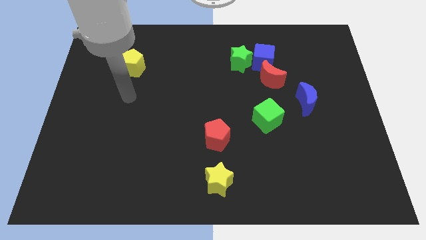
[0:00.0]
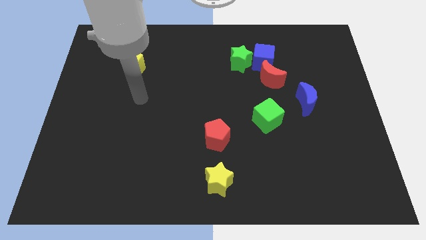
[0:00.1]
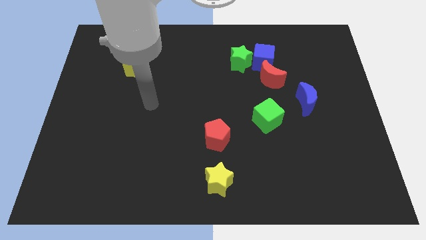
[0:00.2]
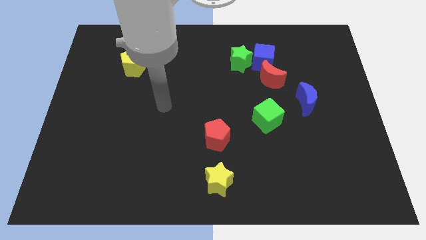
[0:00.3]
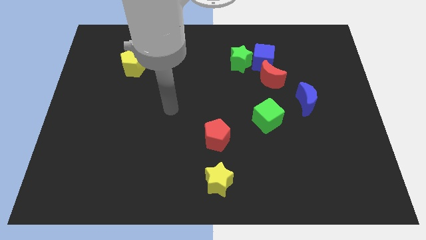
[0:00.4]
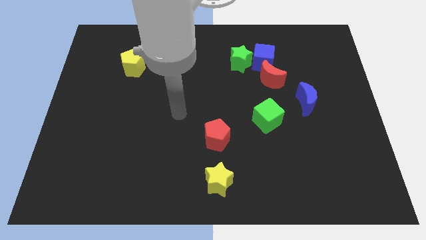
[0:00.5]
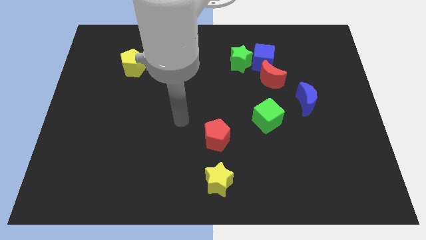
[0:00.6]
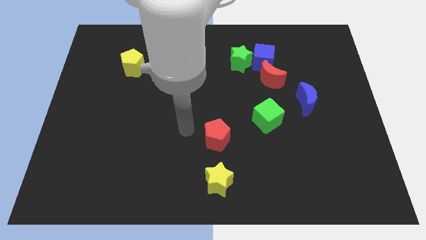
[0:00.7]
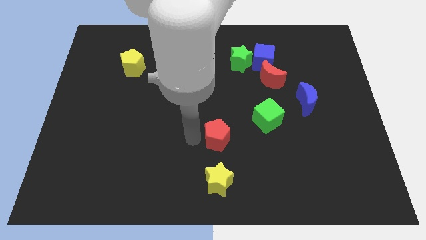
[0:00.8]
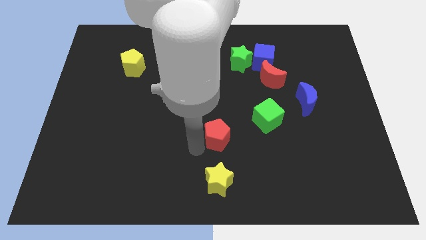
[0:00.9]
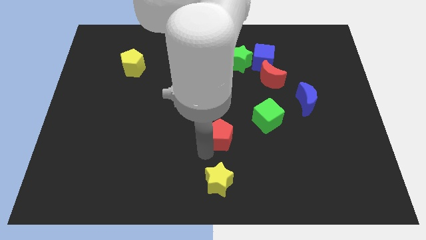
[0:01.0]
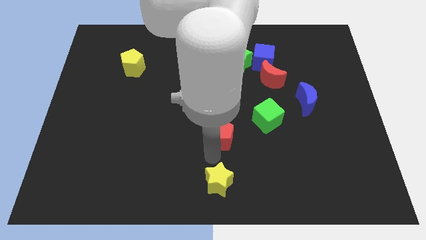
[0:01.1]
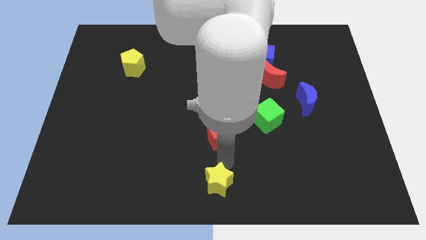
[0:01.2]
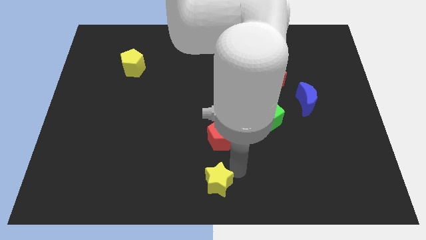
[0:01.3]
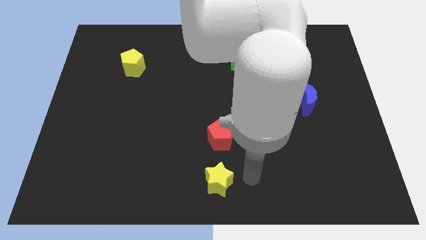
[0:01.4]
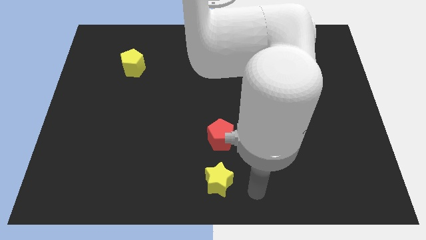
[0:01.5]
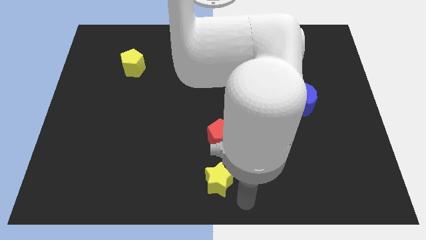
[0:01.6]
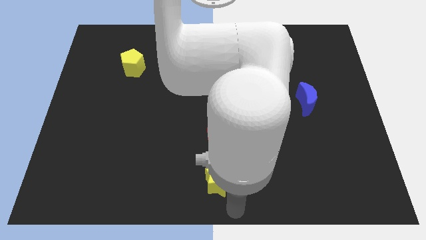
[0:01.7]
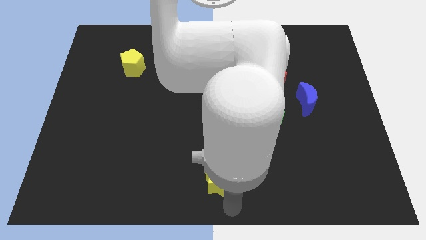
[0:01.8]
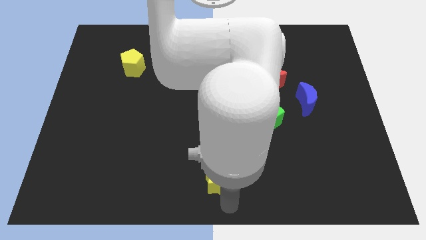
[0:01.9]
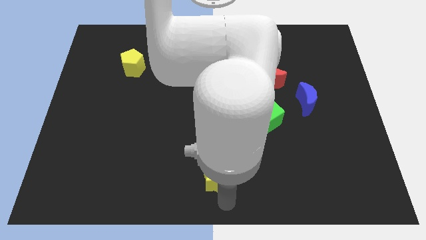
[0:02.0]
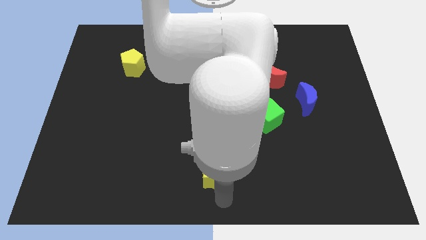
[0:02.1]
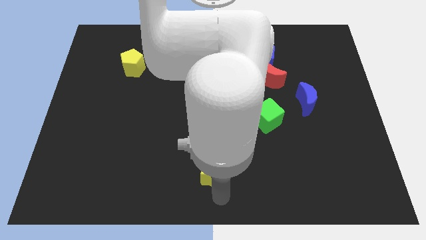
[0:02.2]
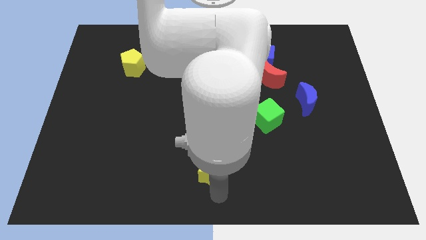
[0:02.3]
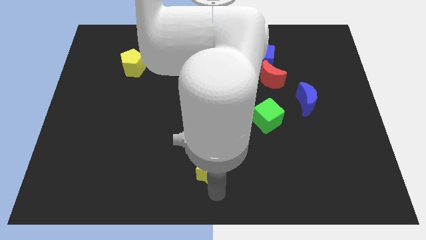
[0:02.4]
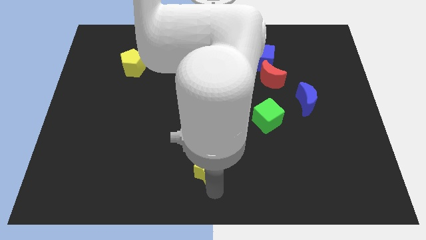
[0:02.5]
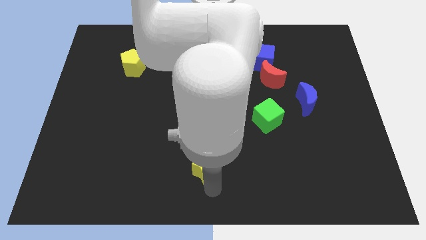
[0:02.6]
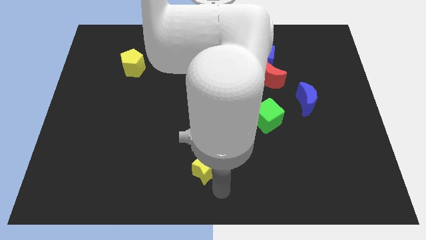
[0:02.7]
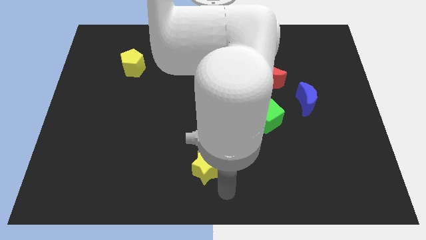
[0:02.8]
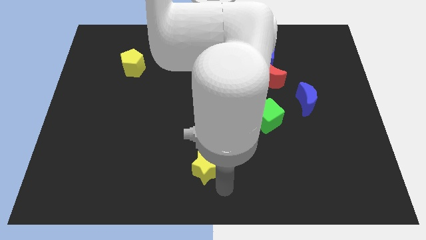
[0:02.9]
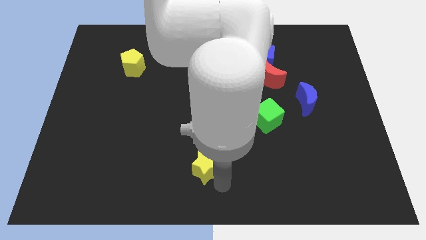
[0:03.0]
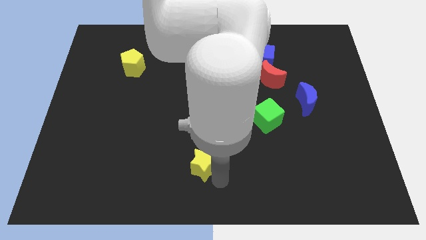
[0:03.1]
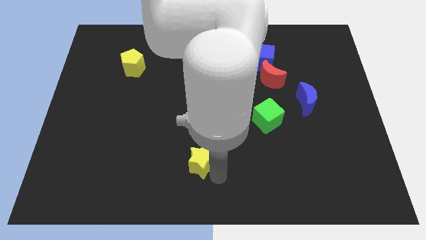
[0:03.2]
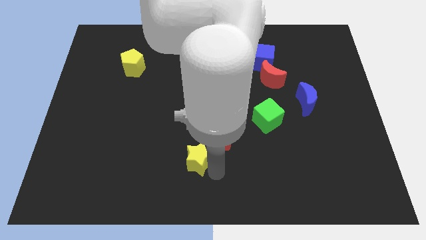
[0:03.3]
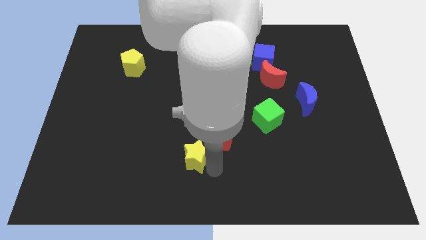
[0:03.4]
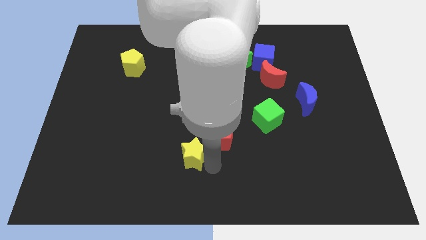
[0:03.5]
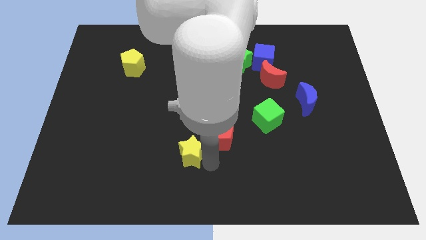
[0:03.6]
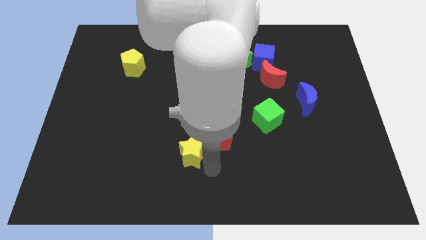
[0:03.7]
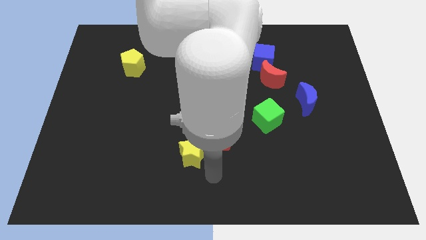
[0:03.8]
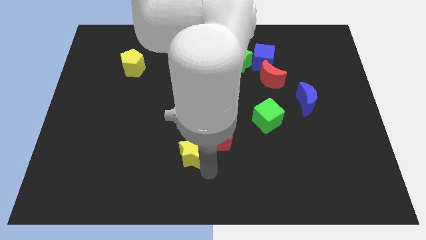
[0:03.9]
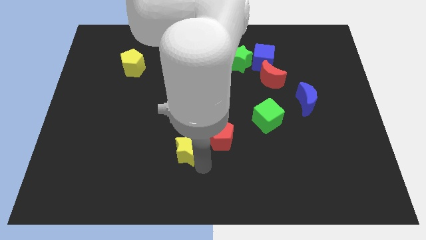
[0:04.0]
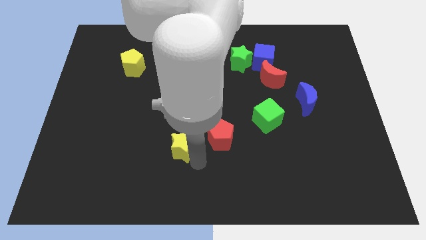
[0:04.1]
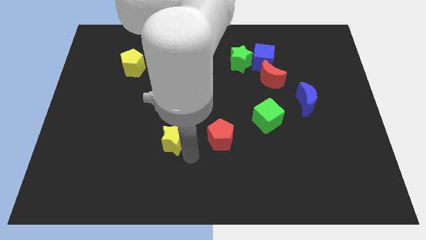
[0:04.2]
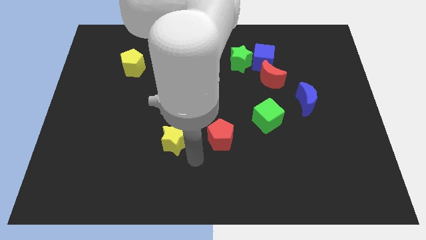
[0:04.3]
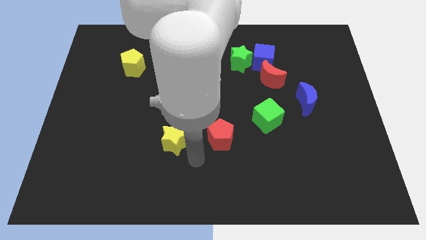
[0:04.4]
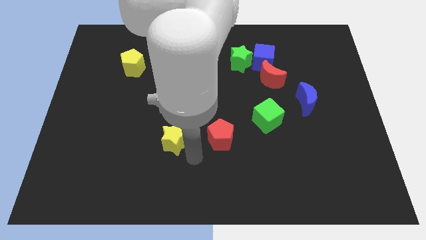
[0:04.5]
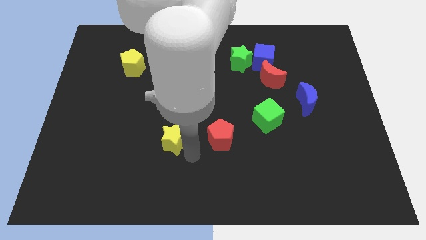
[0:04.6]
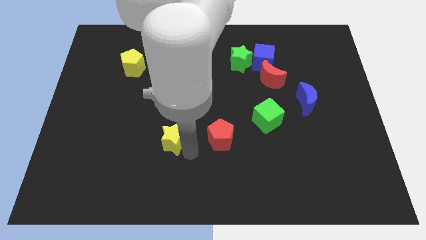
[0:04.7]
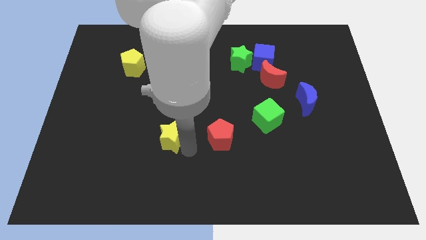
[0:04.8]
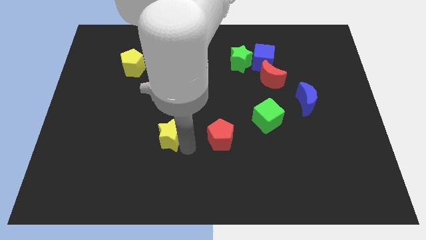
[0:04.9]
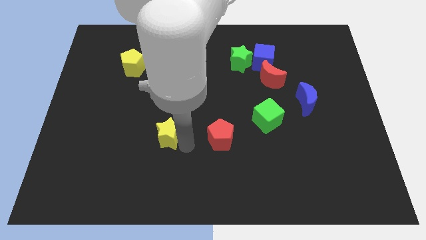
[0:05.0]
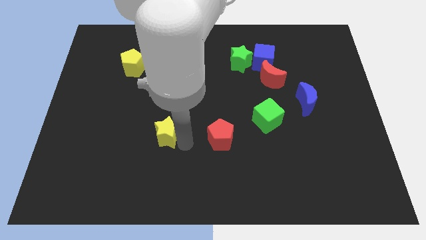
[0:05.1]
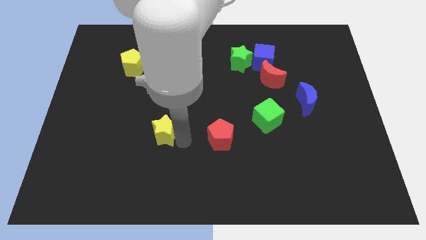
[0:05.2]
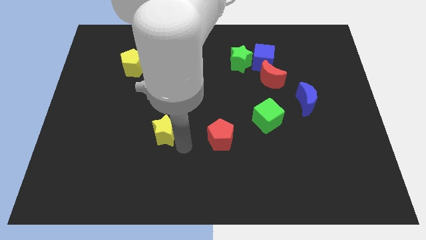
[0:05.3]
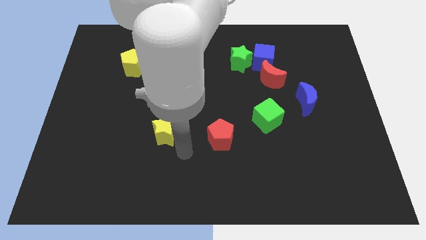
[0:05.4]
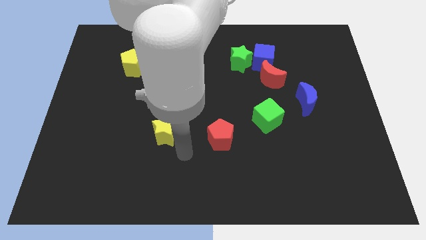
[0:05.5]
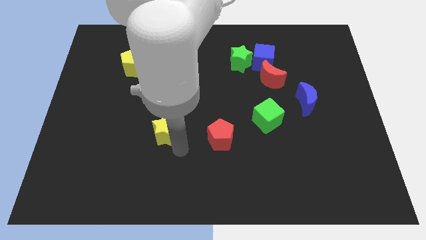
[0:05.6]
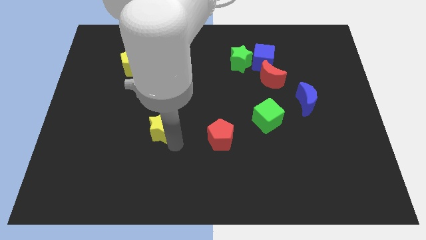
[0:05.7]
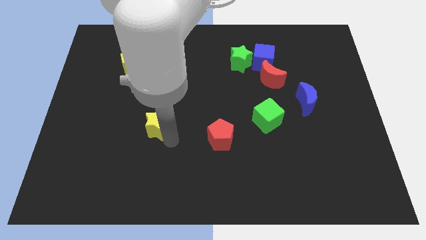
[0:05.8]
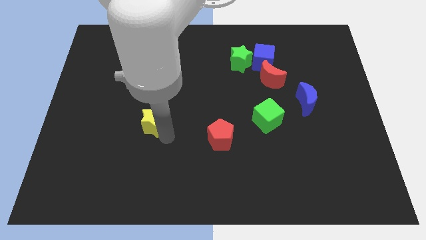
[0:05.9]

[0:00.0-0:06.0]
slide the yellow star diagonally upwards and to the left

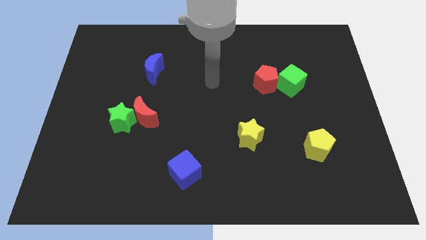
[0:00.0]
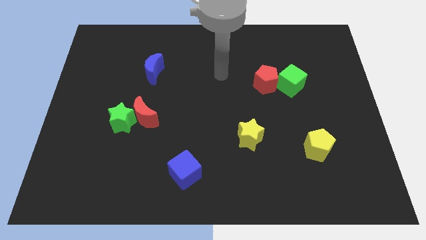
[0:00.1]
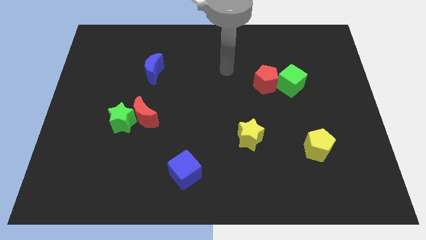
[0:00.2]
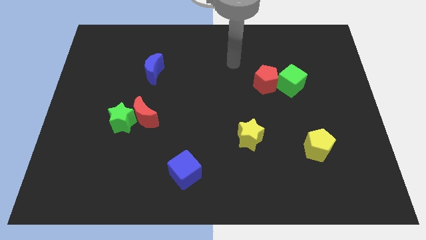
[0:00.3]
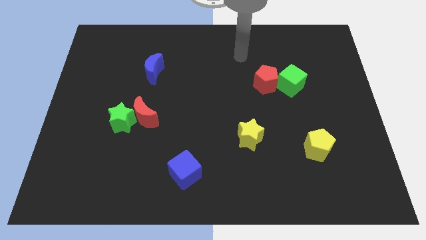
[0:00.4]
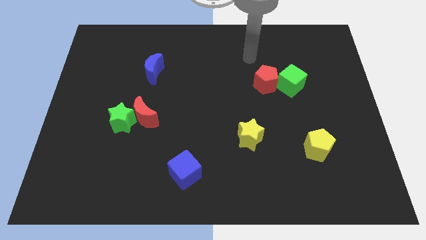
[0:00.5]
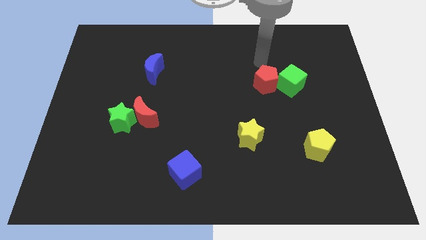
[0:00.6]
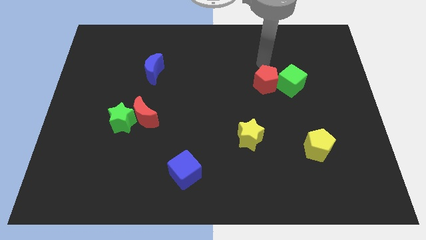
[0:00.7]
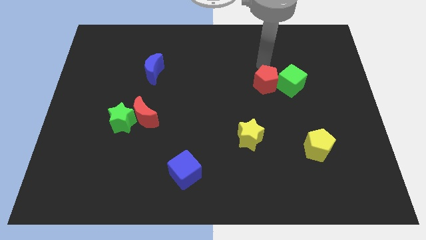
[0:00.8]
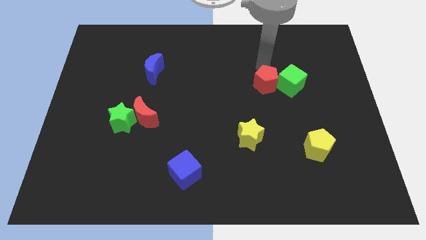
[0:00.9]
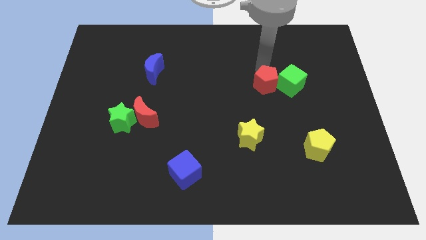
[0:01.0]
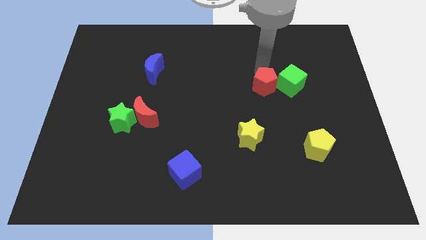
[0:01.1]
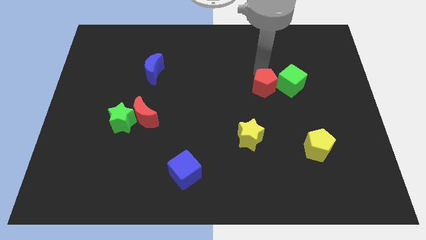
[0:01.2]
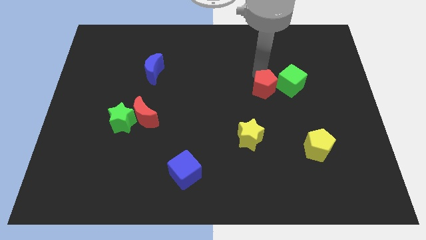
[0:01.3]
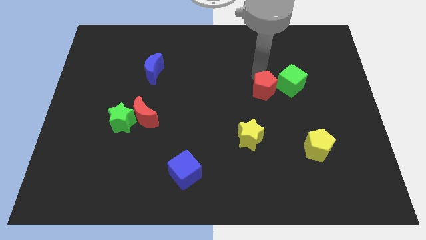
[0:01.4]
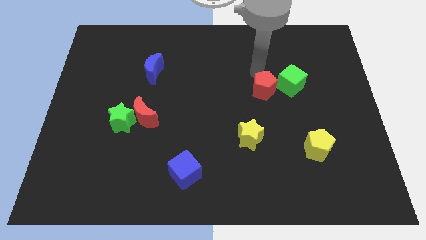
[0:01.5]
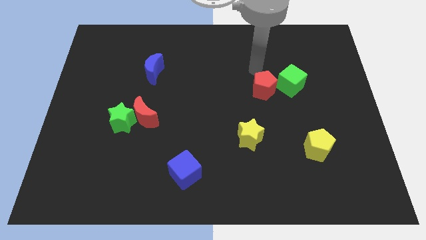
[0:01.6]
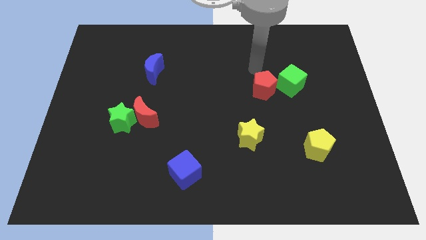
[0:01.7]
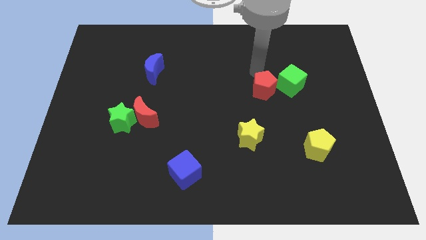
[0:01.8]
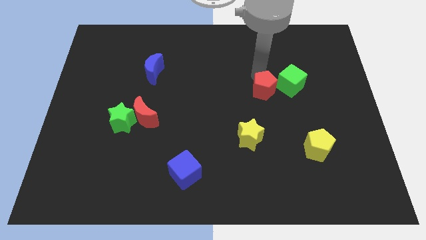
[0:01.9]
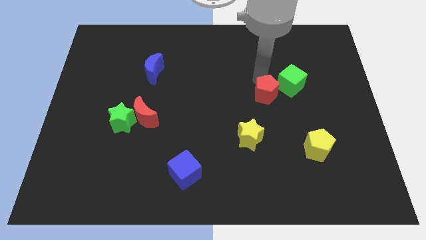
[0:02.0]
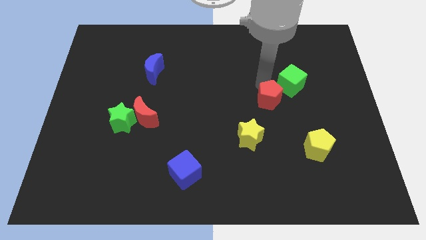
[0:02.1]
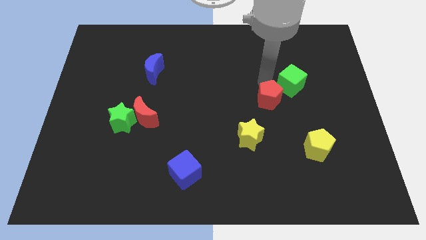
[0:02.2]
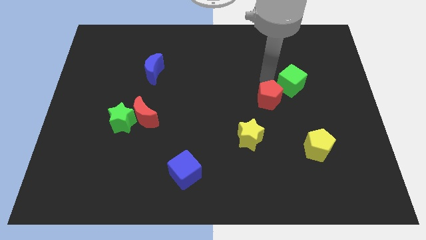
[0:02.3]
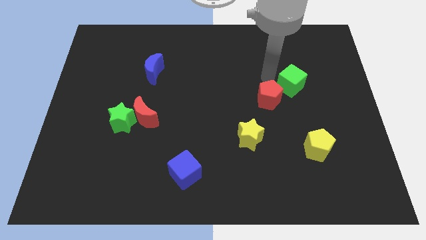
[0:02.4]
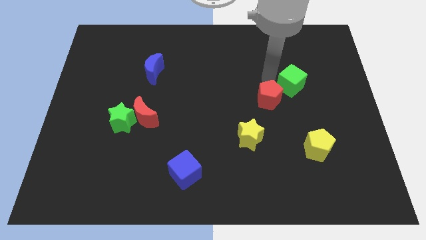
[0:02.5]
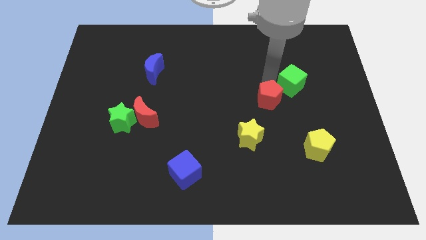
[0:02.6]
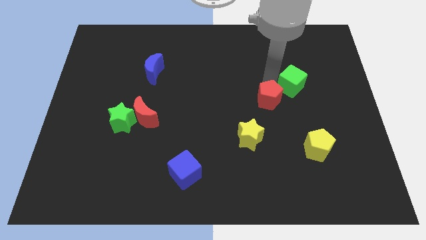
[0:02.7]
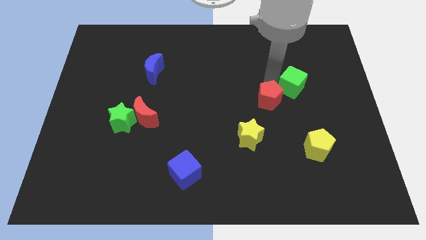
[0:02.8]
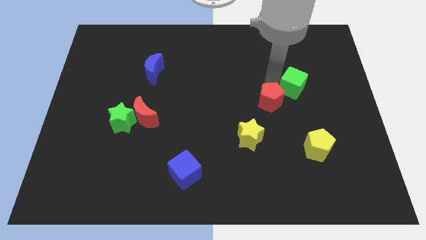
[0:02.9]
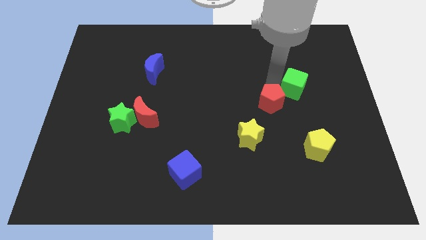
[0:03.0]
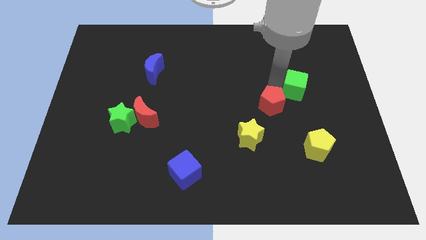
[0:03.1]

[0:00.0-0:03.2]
slightly push the red pentagon down
